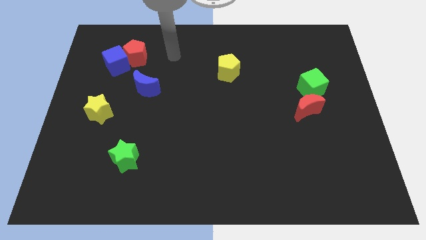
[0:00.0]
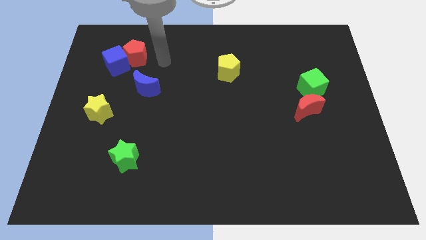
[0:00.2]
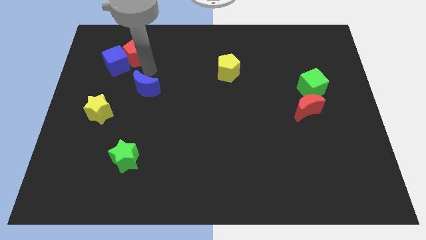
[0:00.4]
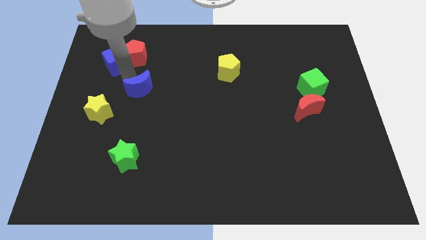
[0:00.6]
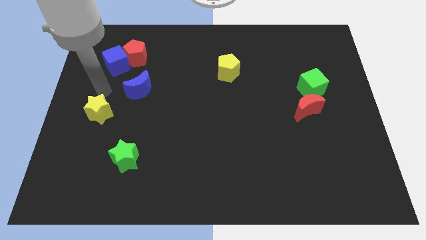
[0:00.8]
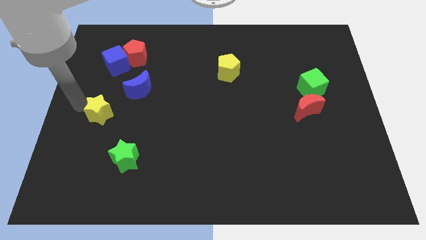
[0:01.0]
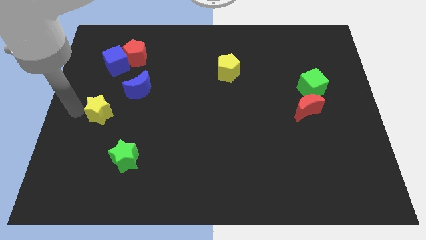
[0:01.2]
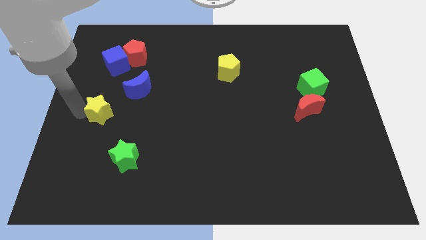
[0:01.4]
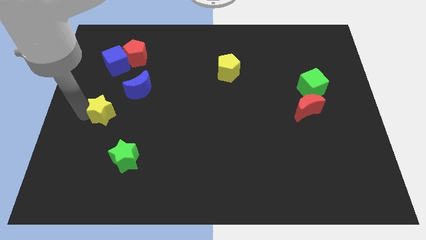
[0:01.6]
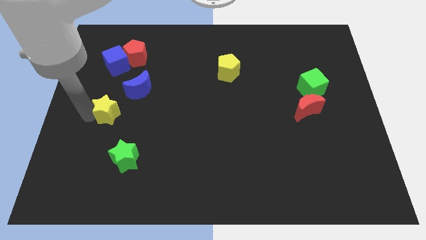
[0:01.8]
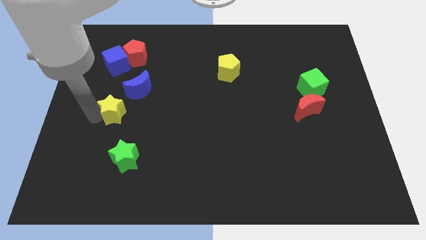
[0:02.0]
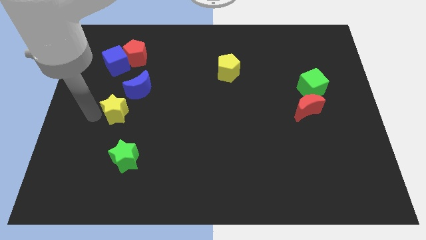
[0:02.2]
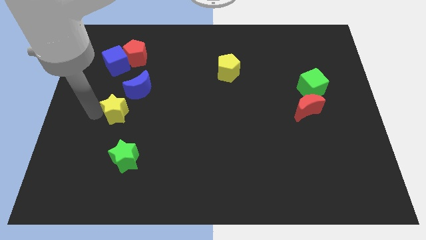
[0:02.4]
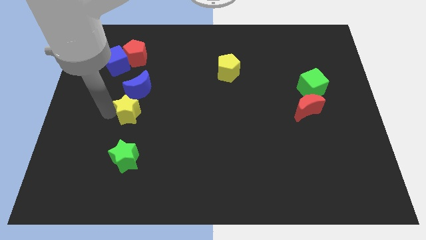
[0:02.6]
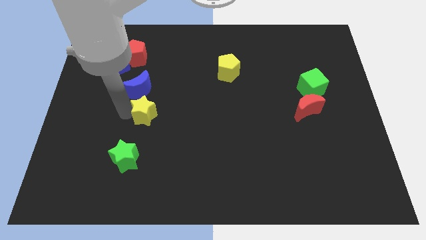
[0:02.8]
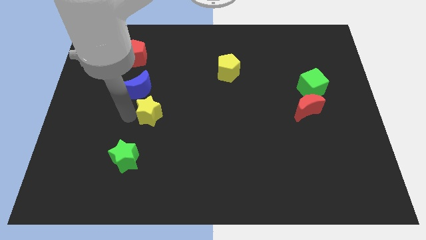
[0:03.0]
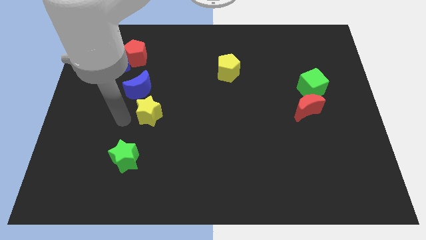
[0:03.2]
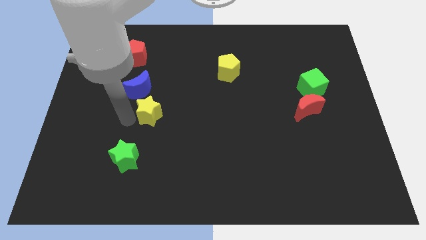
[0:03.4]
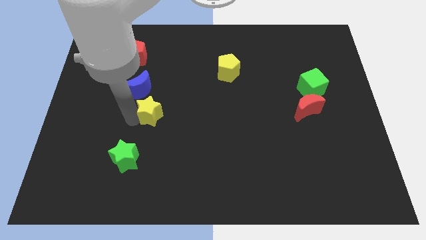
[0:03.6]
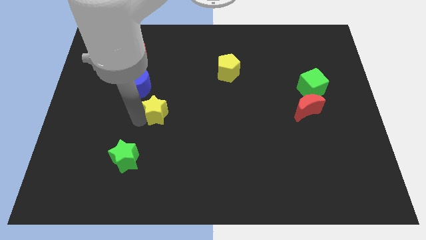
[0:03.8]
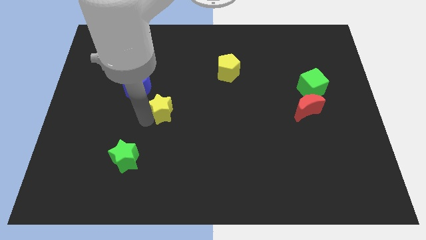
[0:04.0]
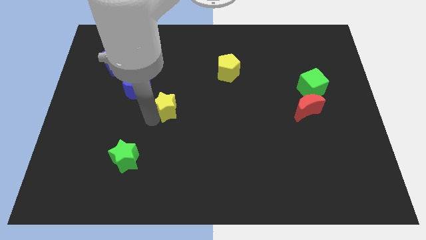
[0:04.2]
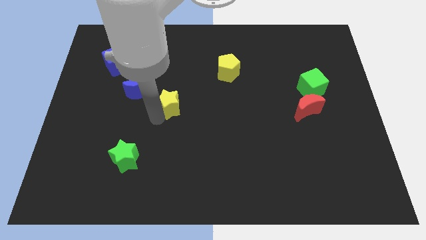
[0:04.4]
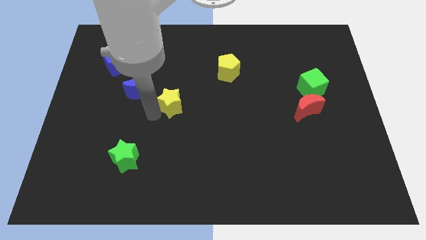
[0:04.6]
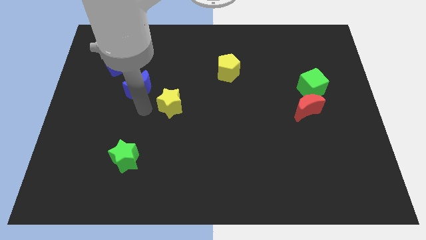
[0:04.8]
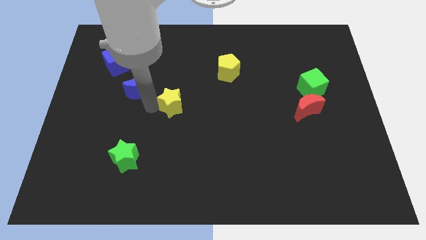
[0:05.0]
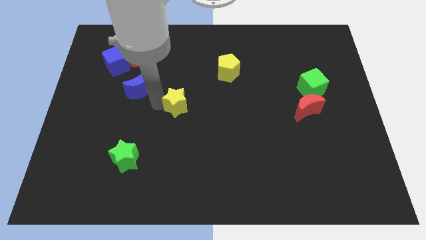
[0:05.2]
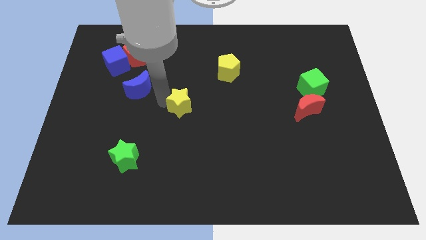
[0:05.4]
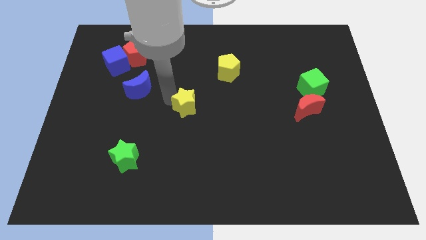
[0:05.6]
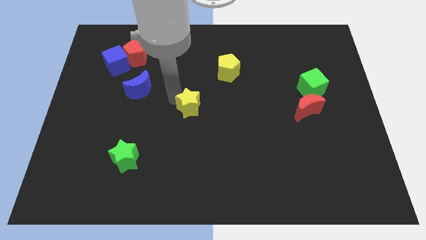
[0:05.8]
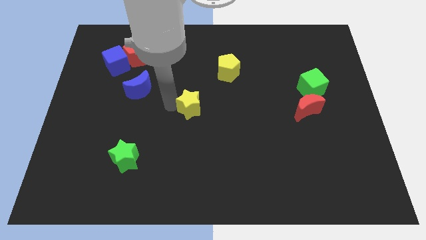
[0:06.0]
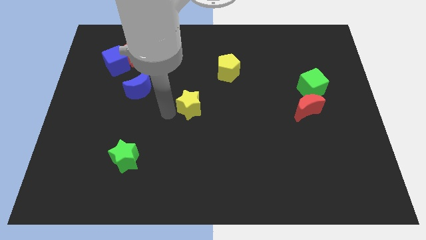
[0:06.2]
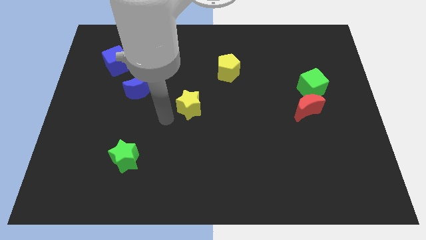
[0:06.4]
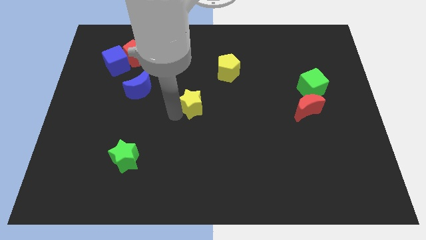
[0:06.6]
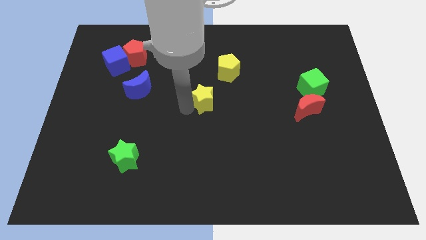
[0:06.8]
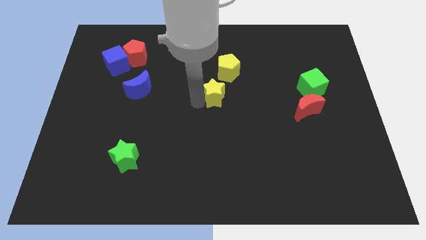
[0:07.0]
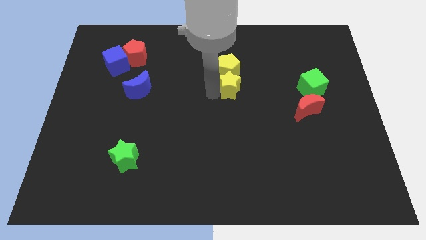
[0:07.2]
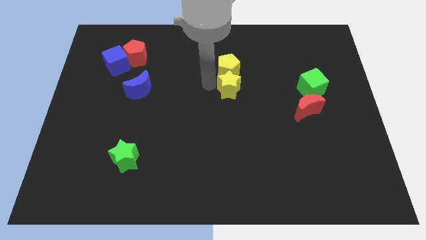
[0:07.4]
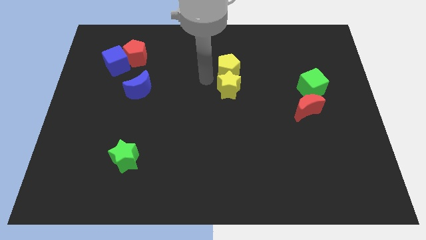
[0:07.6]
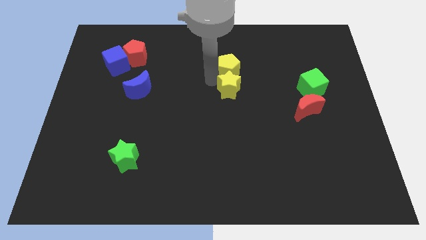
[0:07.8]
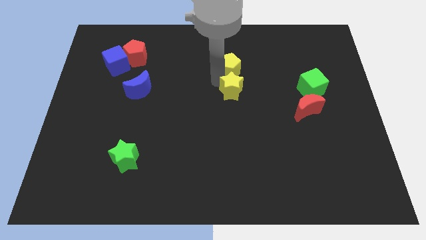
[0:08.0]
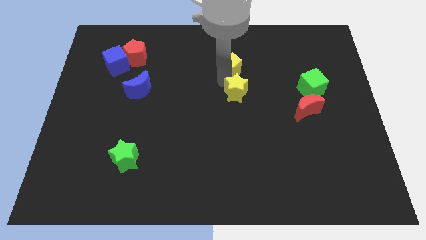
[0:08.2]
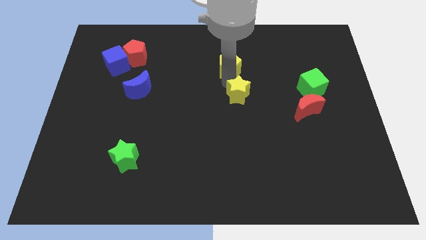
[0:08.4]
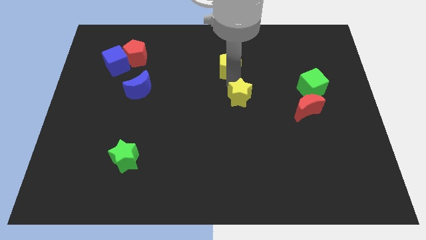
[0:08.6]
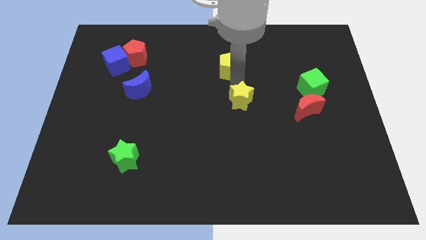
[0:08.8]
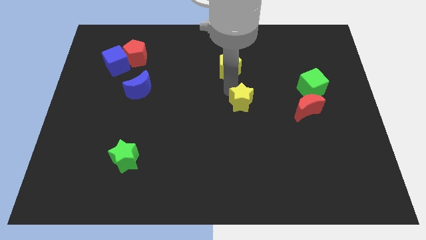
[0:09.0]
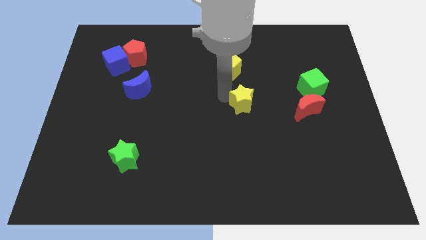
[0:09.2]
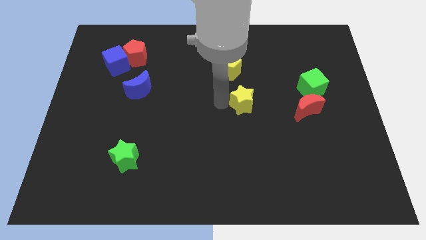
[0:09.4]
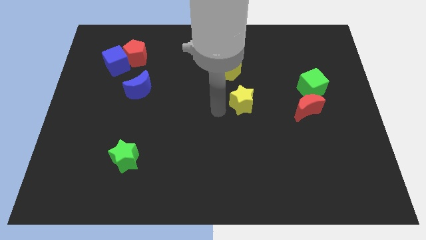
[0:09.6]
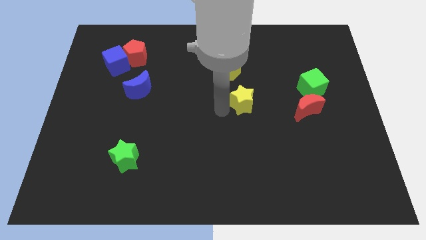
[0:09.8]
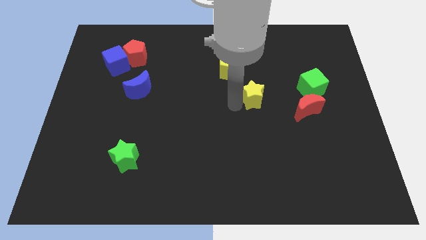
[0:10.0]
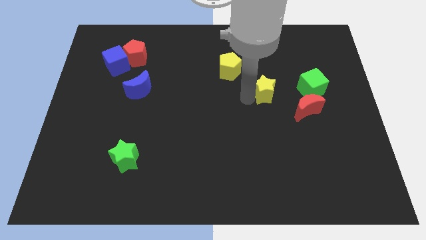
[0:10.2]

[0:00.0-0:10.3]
push the yellow star to the top left of the red moon

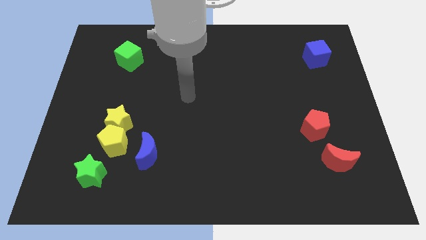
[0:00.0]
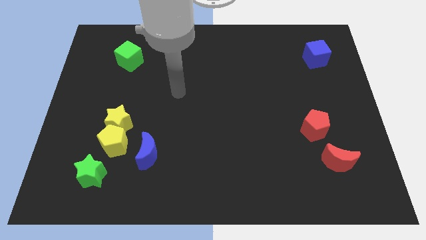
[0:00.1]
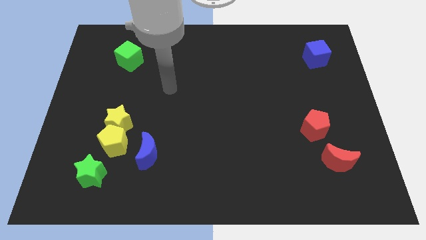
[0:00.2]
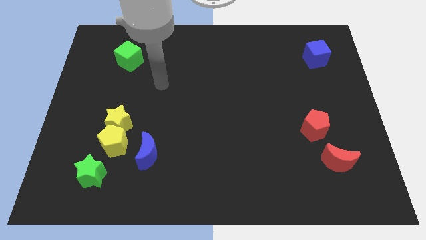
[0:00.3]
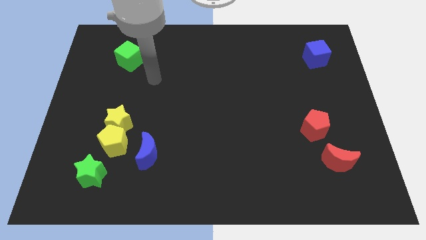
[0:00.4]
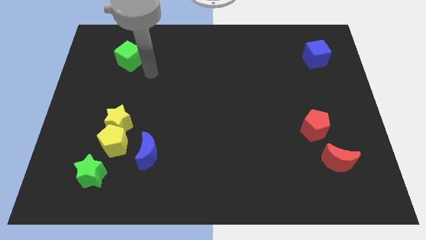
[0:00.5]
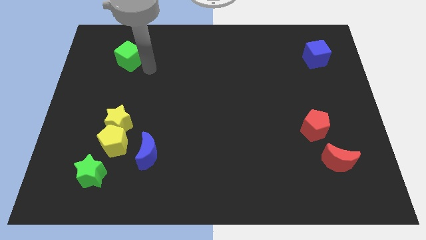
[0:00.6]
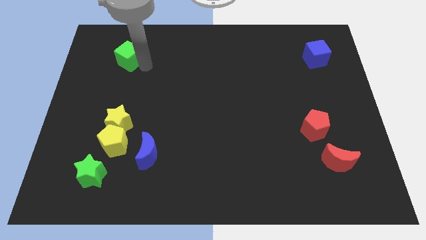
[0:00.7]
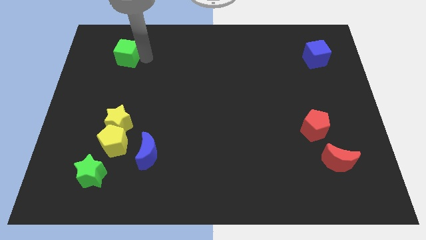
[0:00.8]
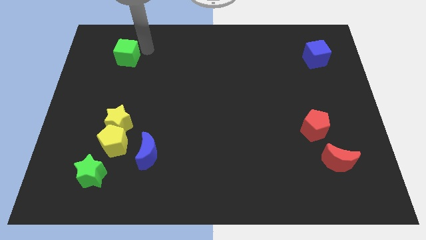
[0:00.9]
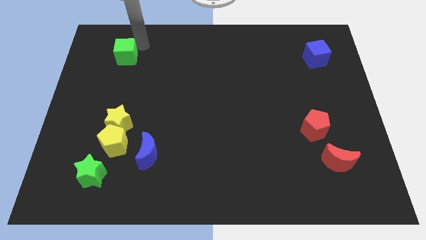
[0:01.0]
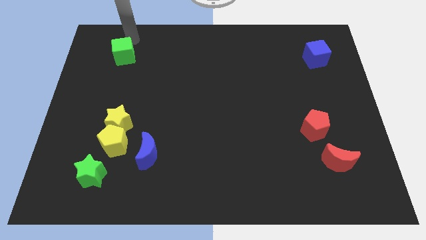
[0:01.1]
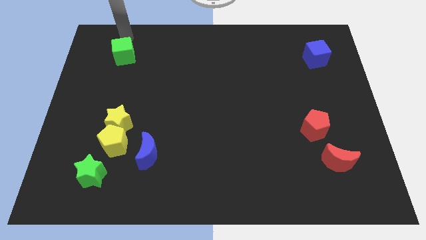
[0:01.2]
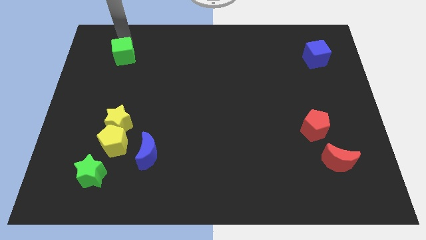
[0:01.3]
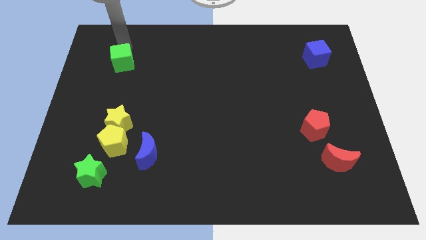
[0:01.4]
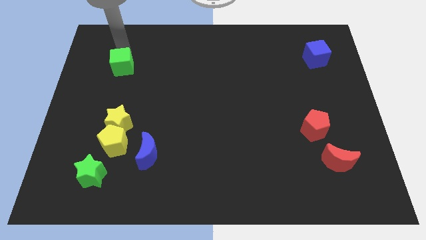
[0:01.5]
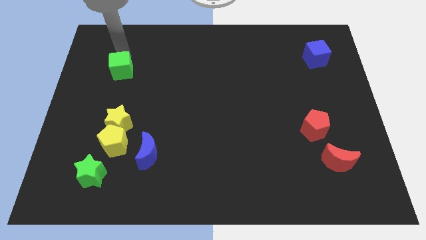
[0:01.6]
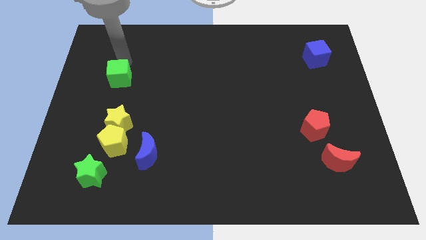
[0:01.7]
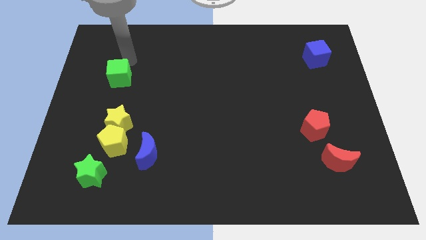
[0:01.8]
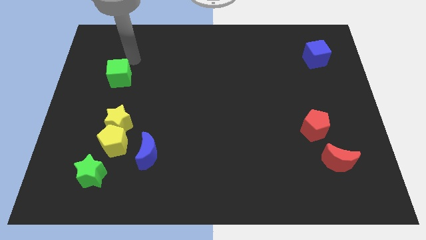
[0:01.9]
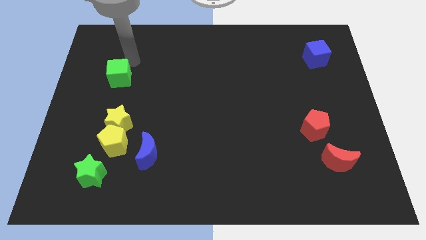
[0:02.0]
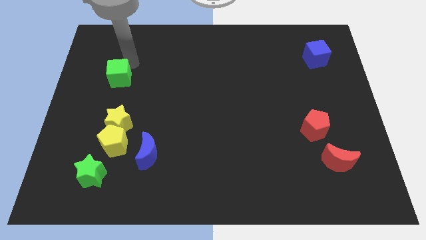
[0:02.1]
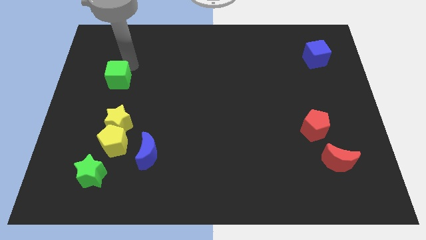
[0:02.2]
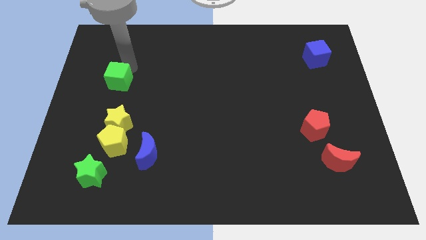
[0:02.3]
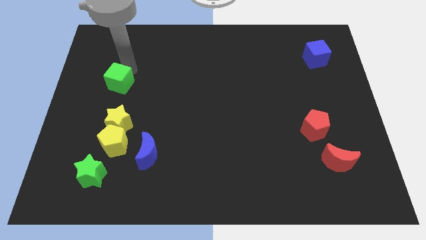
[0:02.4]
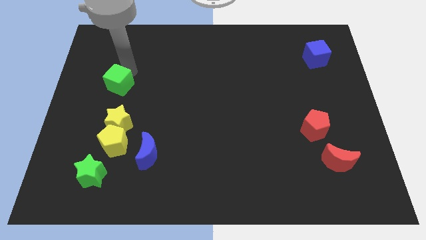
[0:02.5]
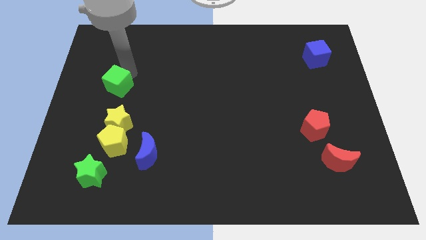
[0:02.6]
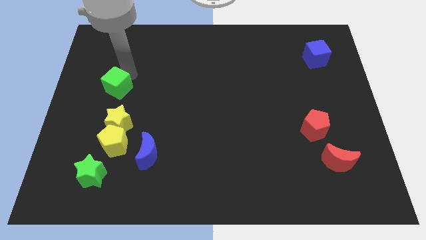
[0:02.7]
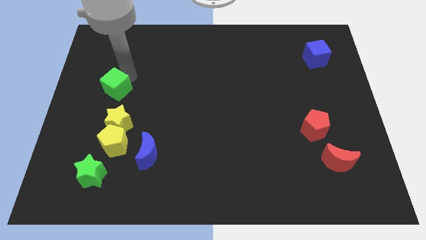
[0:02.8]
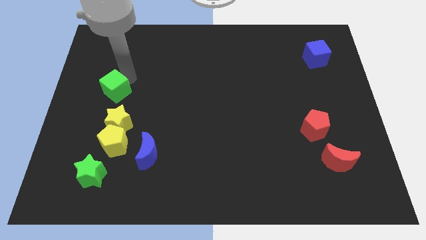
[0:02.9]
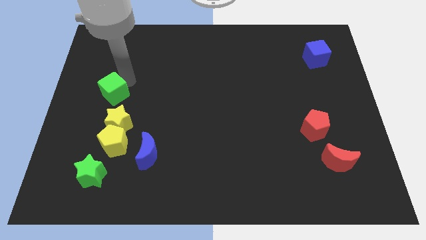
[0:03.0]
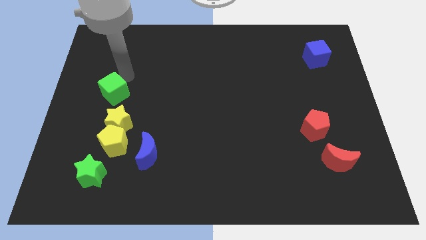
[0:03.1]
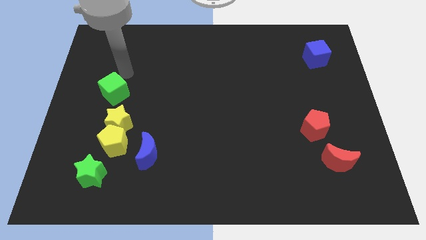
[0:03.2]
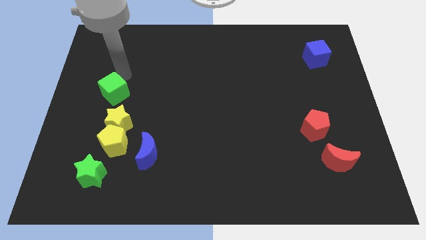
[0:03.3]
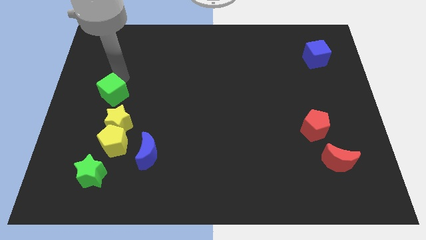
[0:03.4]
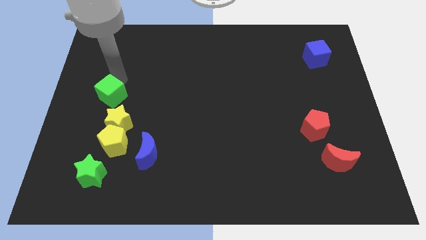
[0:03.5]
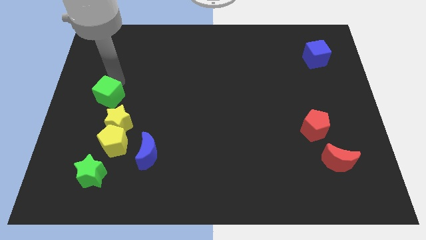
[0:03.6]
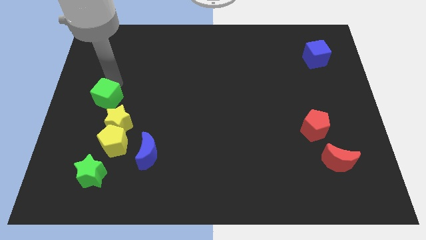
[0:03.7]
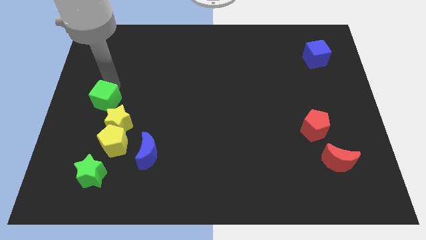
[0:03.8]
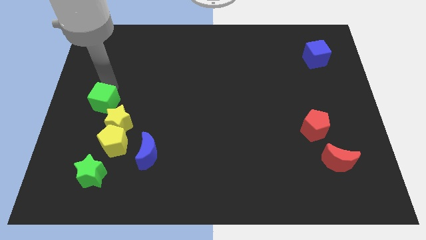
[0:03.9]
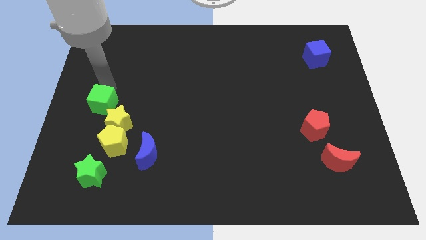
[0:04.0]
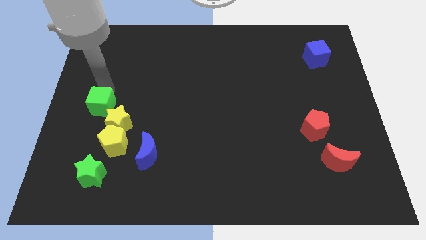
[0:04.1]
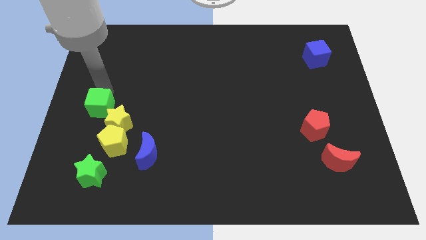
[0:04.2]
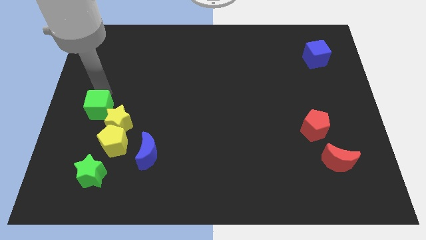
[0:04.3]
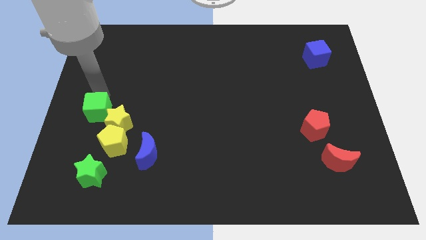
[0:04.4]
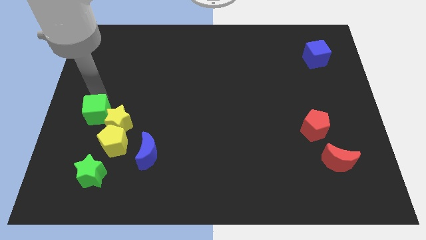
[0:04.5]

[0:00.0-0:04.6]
put the green cube above the green star
